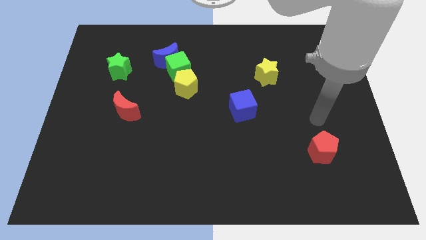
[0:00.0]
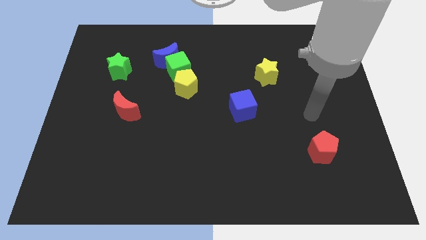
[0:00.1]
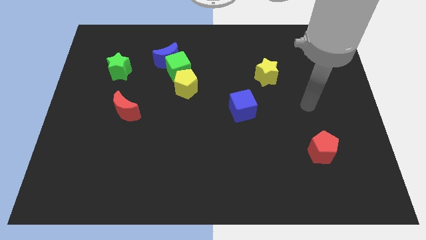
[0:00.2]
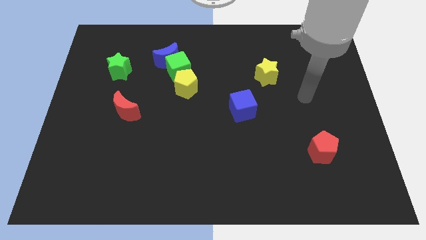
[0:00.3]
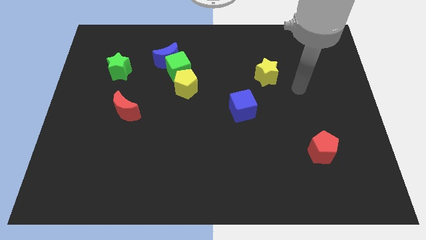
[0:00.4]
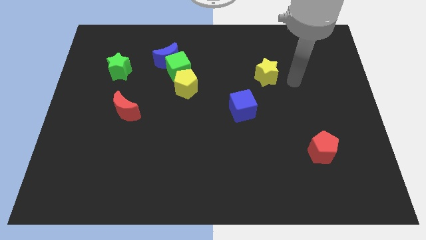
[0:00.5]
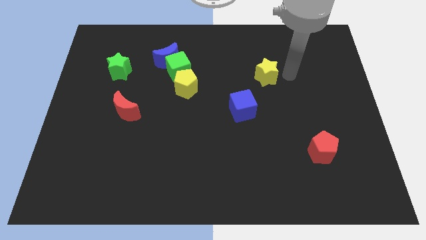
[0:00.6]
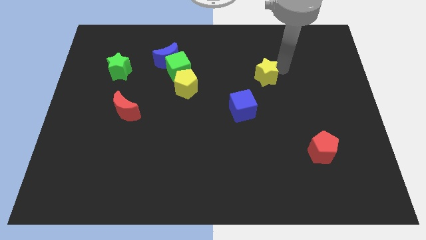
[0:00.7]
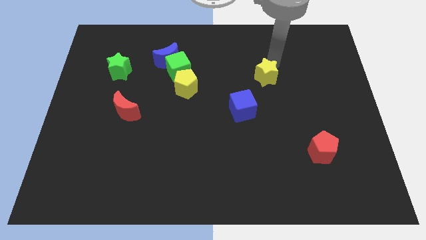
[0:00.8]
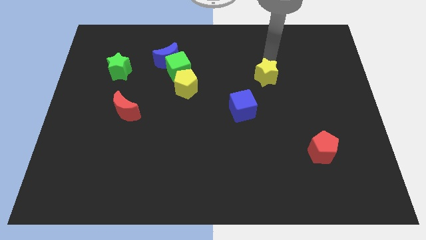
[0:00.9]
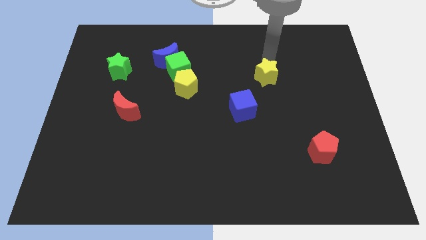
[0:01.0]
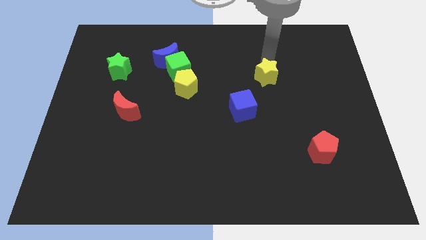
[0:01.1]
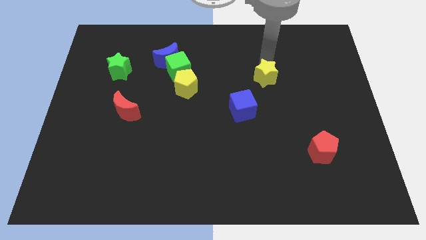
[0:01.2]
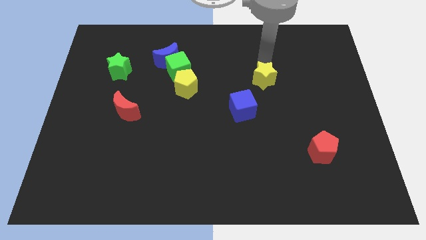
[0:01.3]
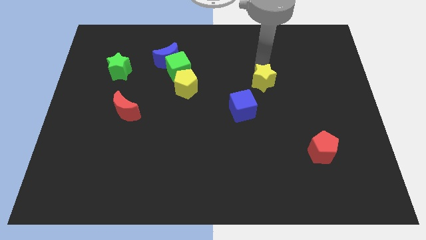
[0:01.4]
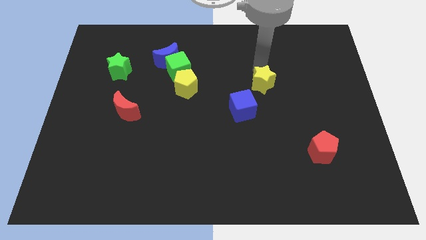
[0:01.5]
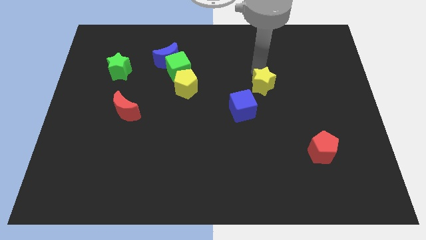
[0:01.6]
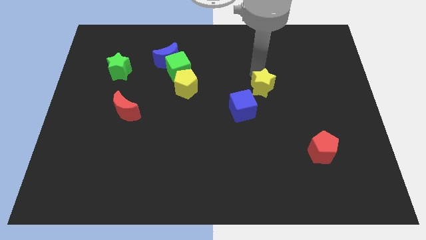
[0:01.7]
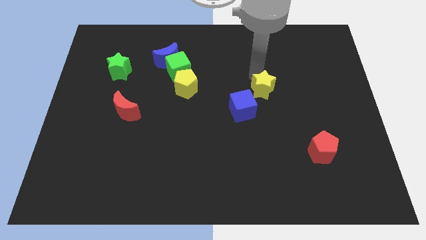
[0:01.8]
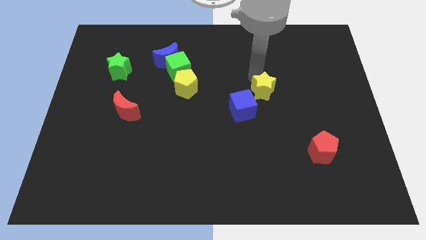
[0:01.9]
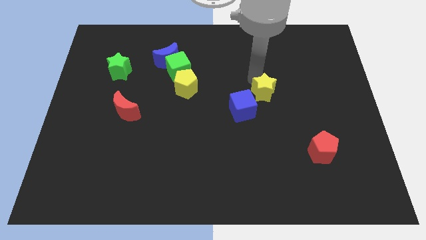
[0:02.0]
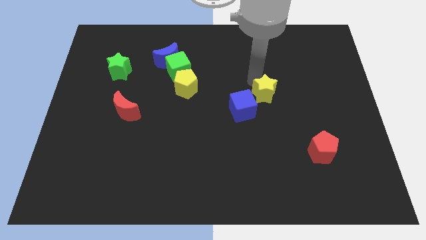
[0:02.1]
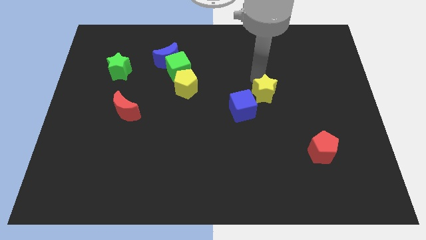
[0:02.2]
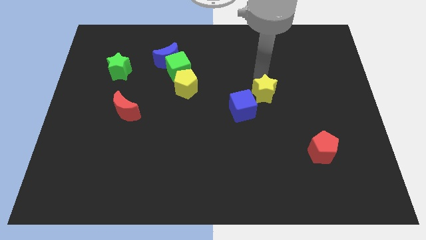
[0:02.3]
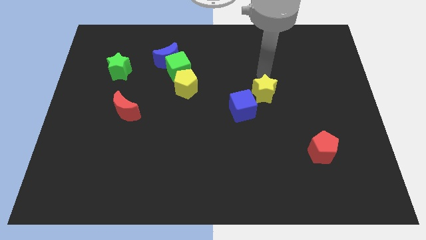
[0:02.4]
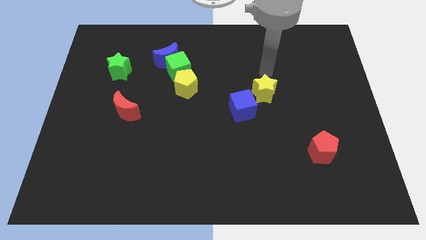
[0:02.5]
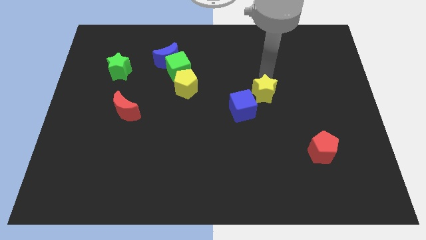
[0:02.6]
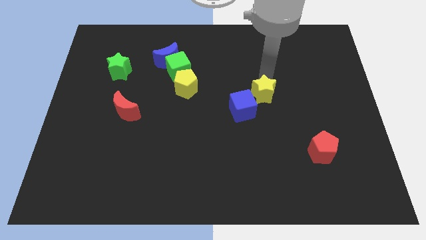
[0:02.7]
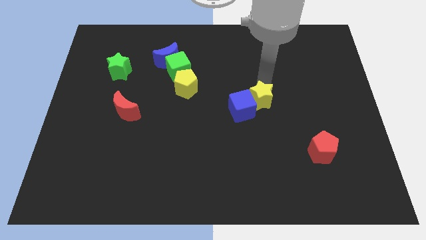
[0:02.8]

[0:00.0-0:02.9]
move the yellow star a little bit down

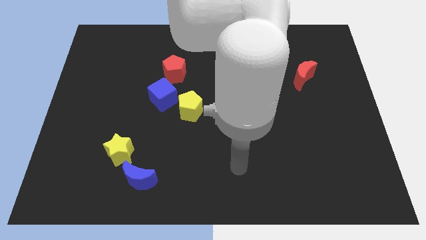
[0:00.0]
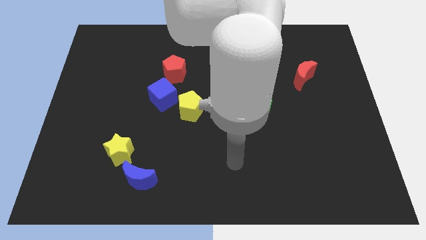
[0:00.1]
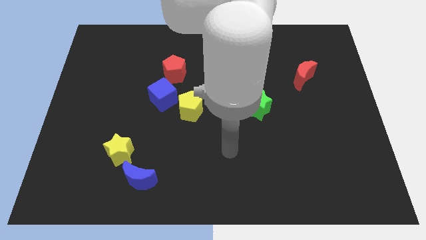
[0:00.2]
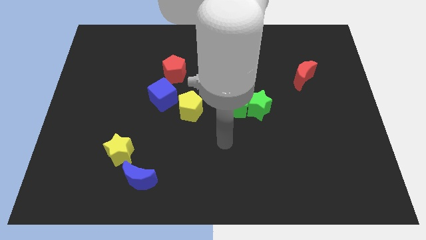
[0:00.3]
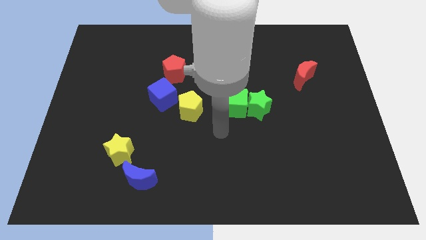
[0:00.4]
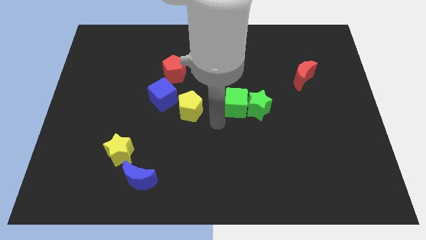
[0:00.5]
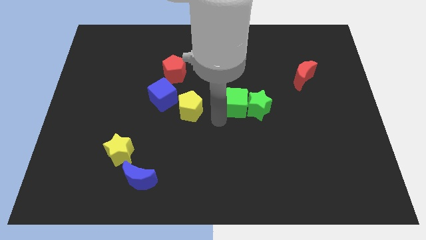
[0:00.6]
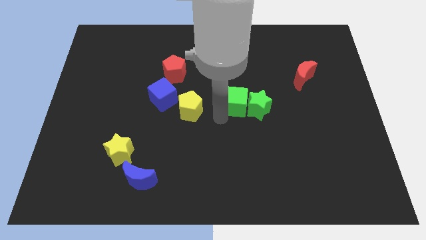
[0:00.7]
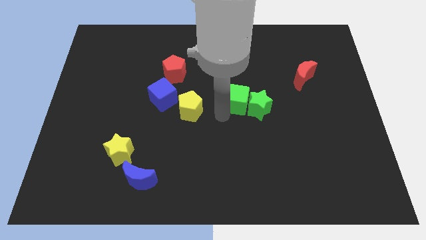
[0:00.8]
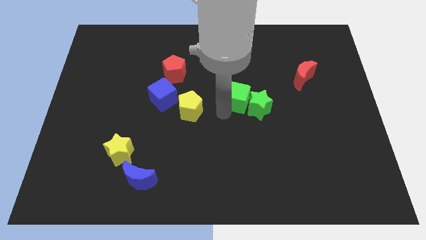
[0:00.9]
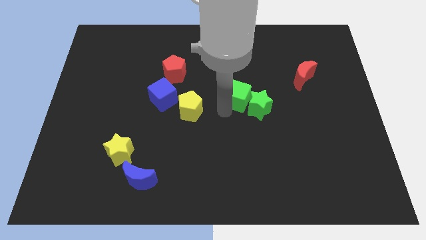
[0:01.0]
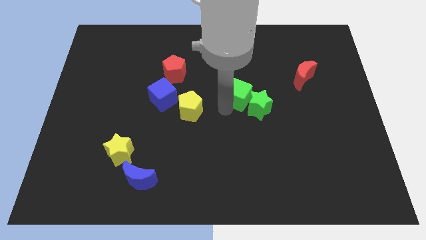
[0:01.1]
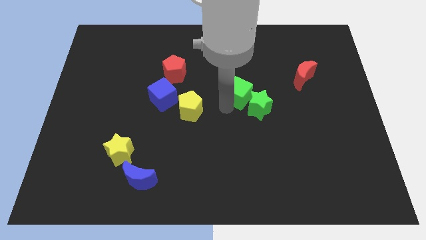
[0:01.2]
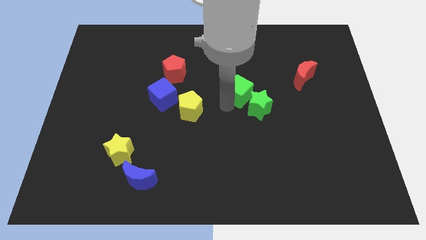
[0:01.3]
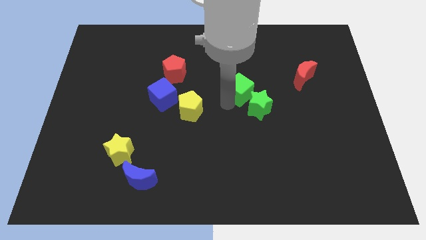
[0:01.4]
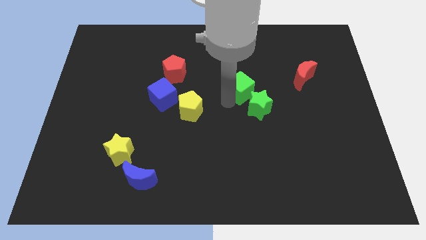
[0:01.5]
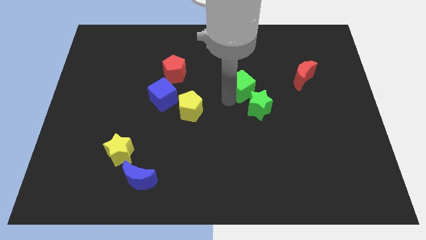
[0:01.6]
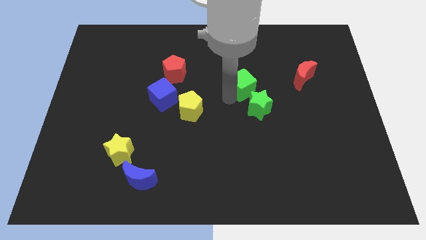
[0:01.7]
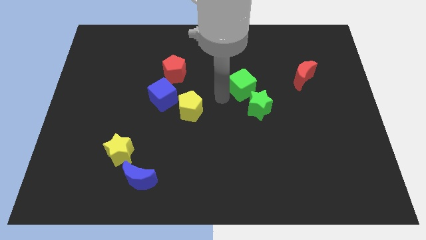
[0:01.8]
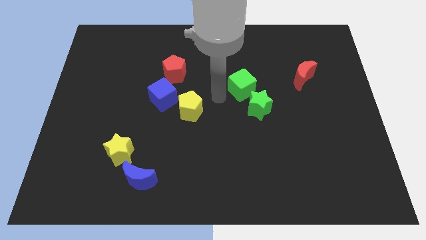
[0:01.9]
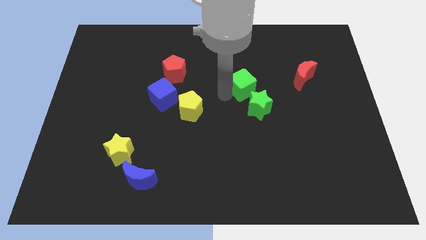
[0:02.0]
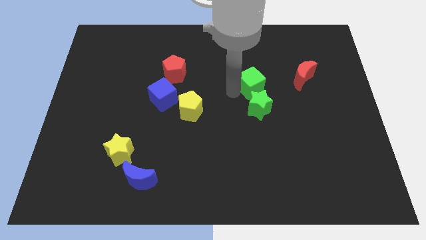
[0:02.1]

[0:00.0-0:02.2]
slide the green cube diagonally up and to the right a little bit

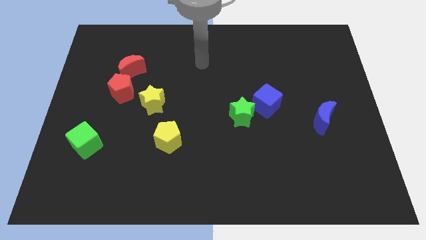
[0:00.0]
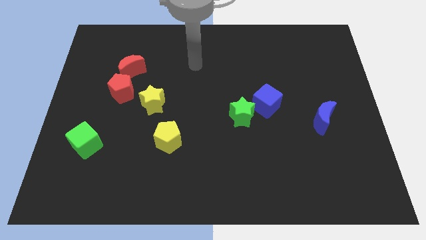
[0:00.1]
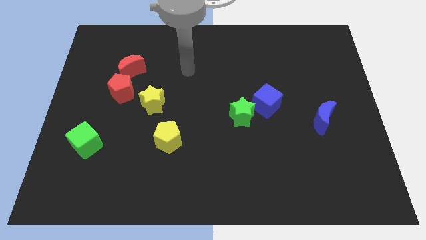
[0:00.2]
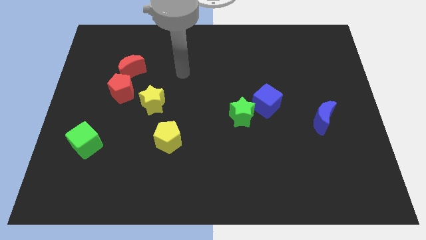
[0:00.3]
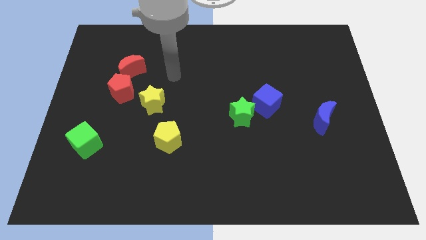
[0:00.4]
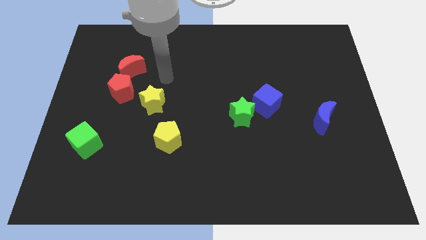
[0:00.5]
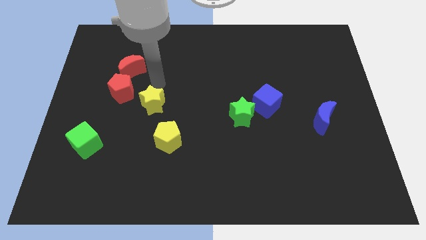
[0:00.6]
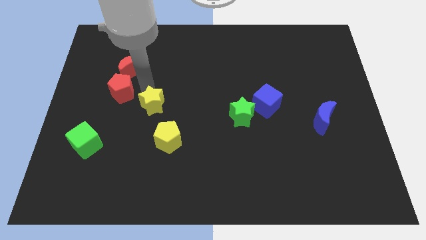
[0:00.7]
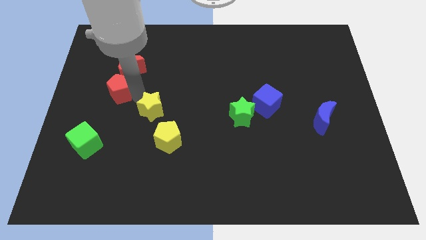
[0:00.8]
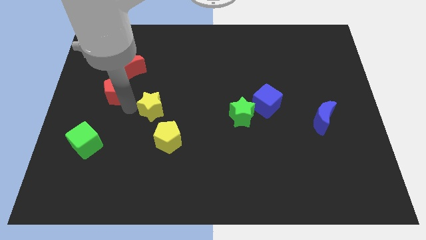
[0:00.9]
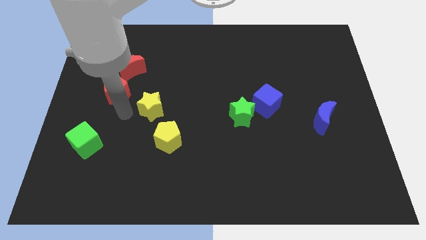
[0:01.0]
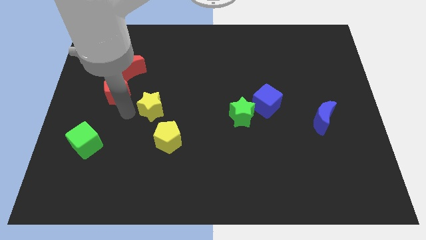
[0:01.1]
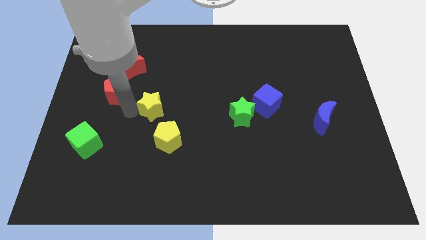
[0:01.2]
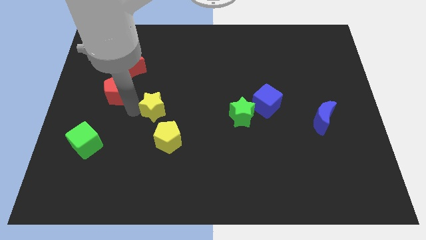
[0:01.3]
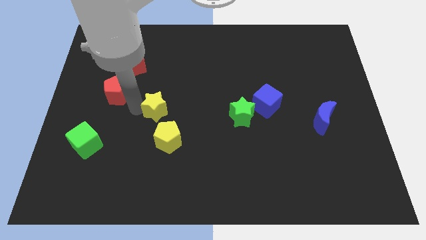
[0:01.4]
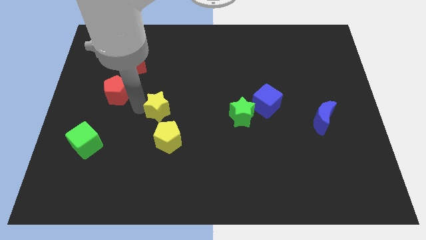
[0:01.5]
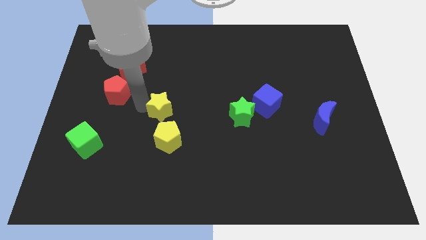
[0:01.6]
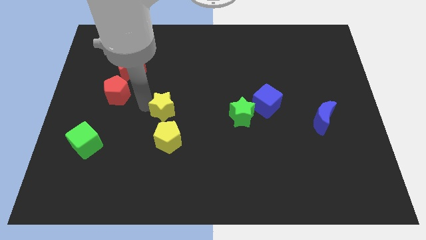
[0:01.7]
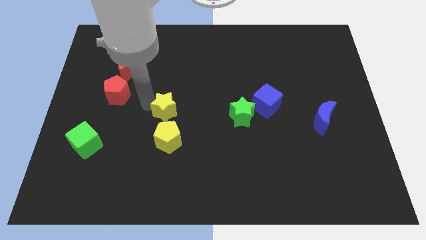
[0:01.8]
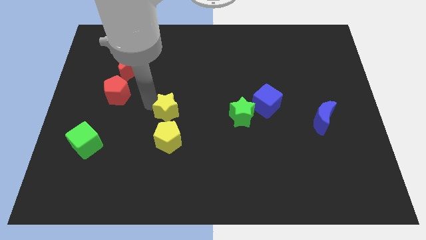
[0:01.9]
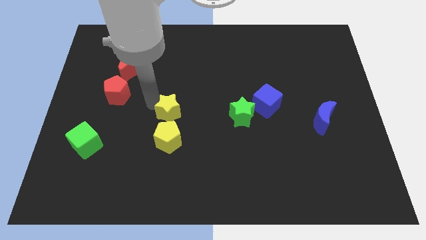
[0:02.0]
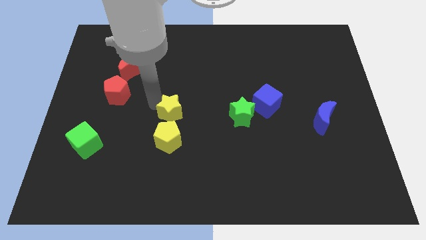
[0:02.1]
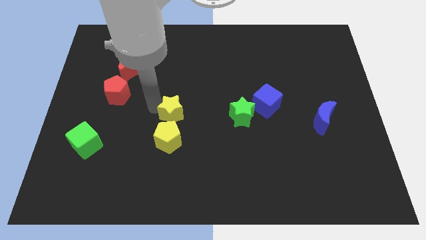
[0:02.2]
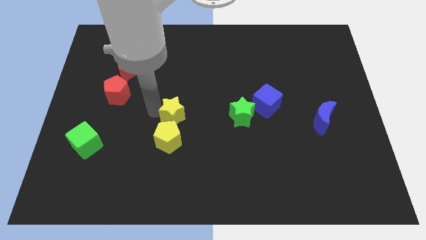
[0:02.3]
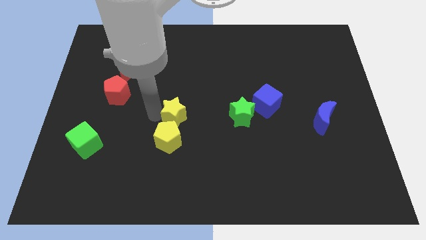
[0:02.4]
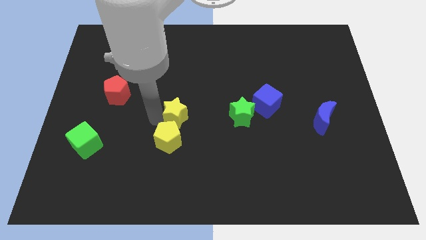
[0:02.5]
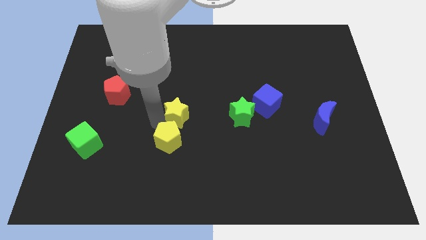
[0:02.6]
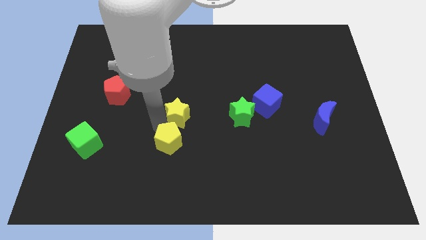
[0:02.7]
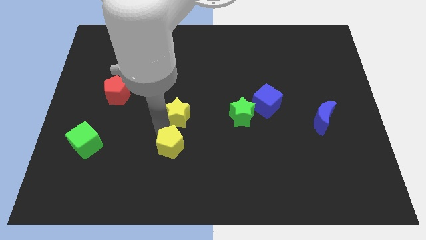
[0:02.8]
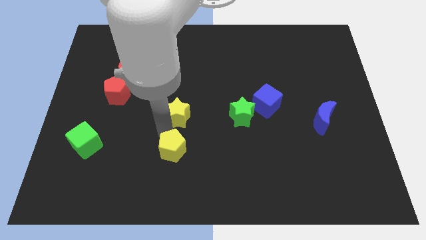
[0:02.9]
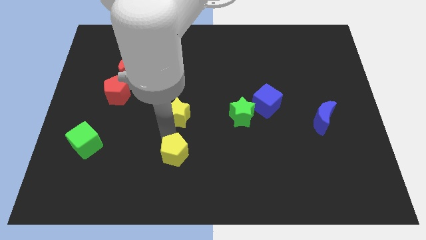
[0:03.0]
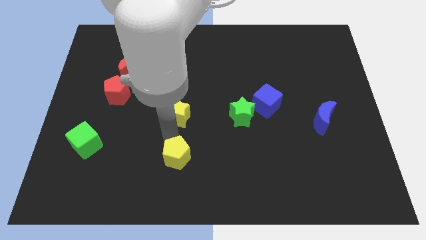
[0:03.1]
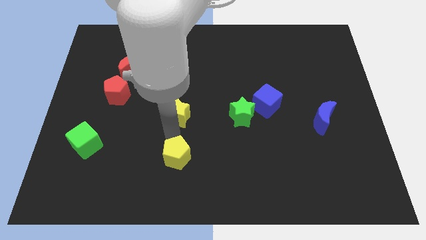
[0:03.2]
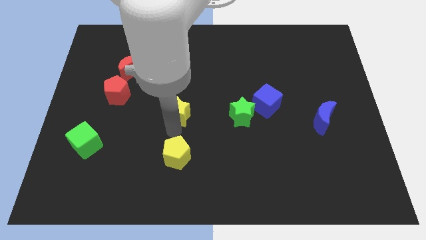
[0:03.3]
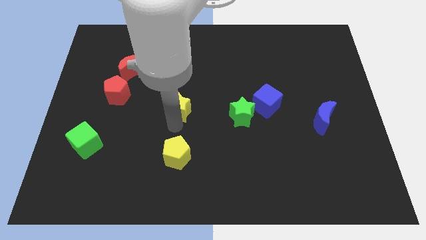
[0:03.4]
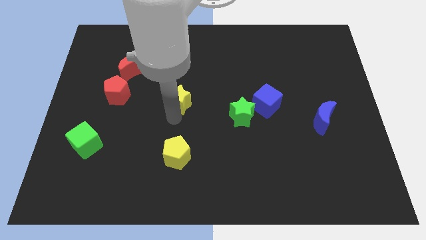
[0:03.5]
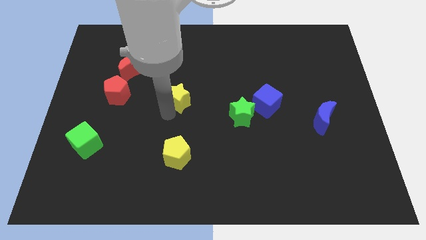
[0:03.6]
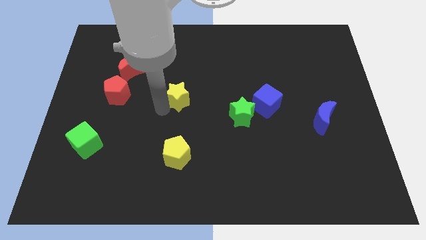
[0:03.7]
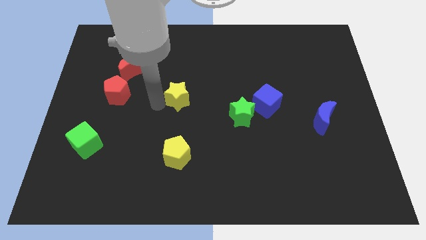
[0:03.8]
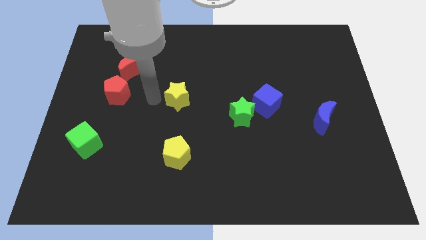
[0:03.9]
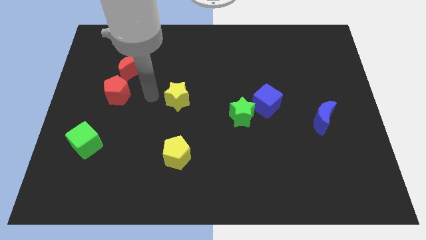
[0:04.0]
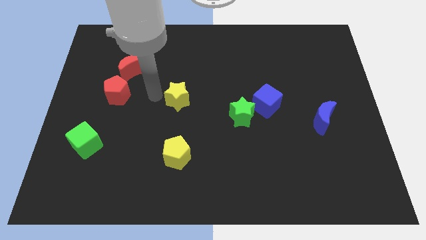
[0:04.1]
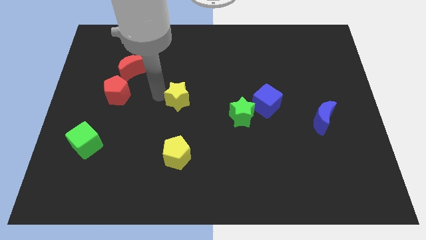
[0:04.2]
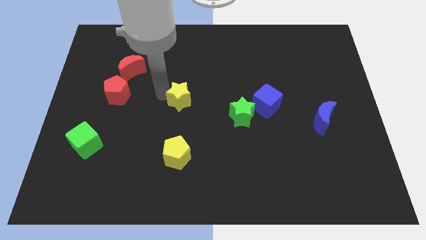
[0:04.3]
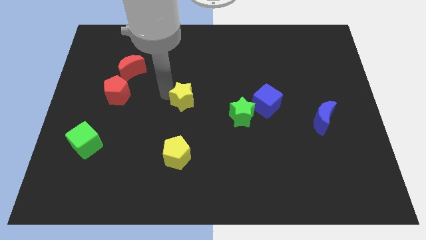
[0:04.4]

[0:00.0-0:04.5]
move the yellow star a little bit to the right
